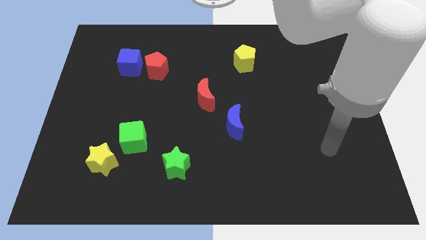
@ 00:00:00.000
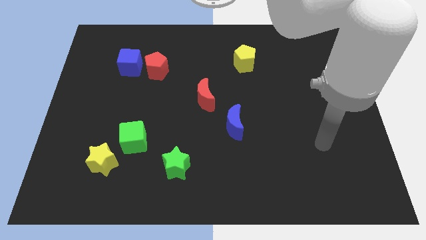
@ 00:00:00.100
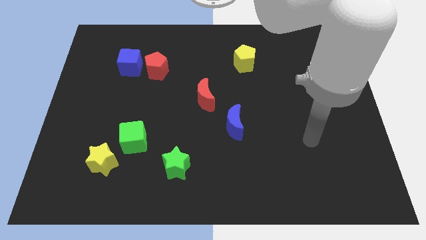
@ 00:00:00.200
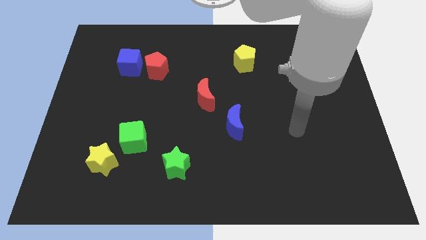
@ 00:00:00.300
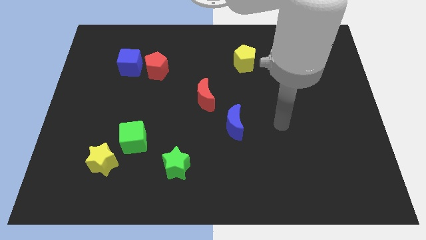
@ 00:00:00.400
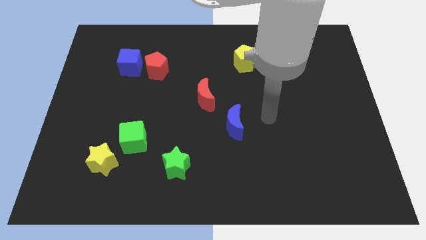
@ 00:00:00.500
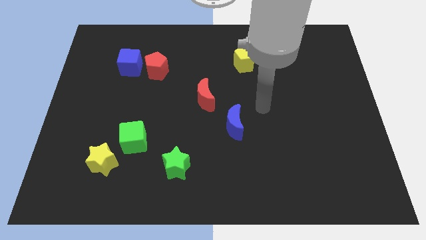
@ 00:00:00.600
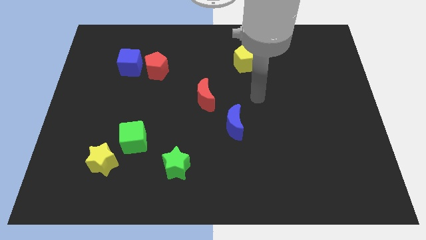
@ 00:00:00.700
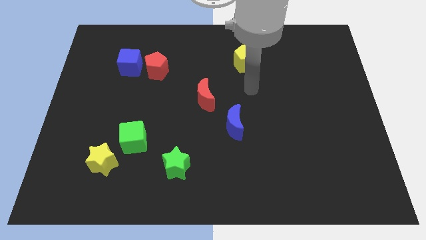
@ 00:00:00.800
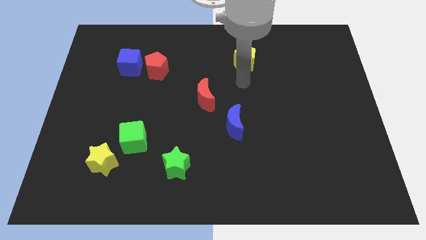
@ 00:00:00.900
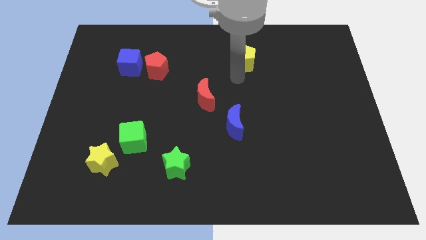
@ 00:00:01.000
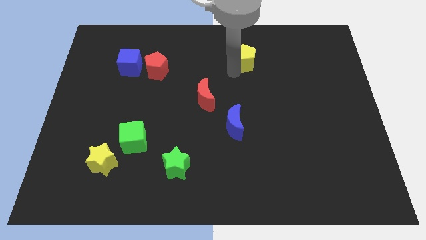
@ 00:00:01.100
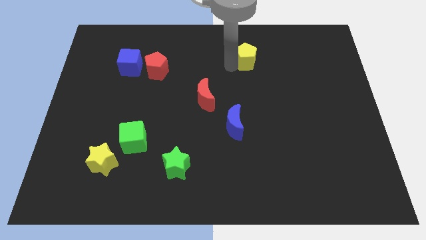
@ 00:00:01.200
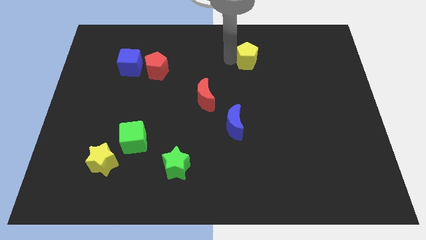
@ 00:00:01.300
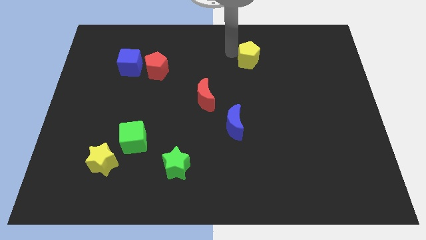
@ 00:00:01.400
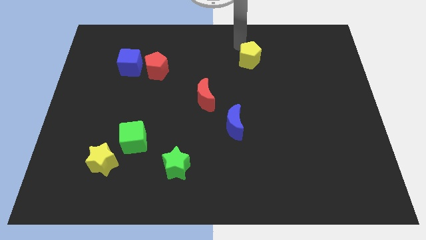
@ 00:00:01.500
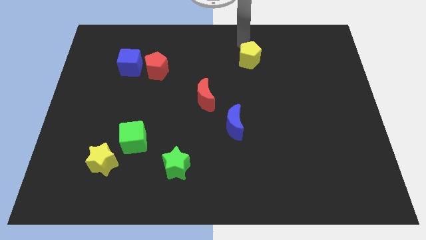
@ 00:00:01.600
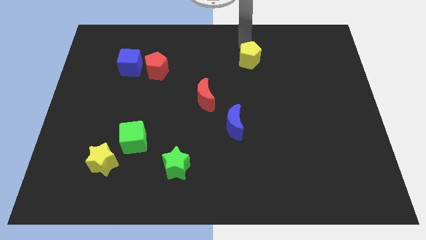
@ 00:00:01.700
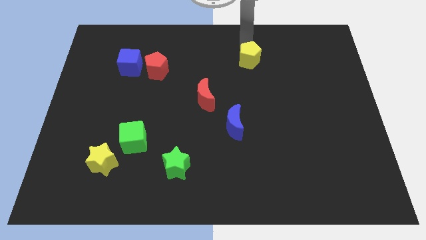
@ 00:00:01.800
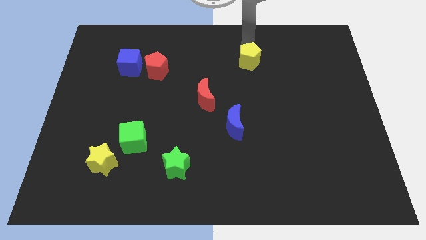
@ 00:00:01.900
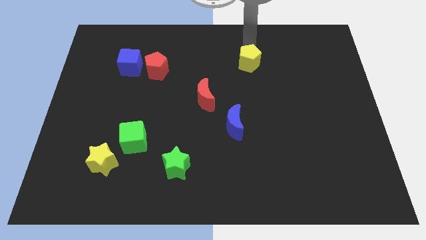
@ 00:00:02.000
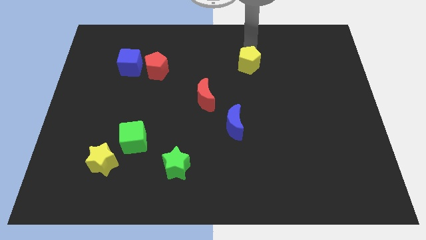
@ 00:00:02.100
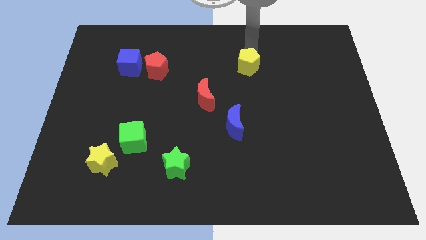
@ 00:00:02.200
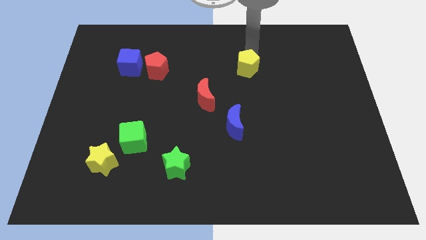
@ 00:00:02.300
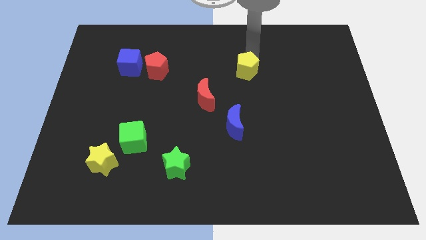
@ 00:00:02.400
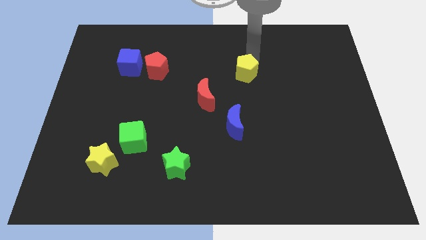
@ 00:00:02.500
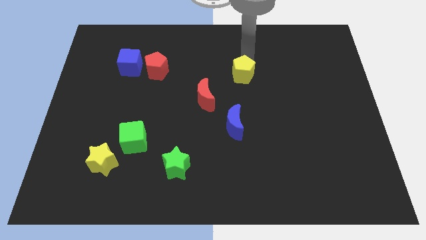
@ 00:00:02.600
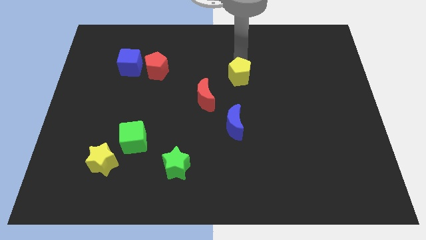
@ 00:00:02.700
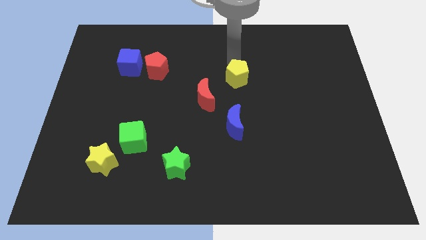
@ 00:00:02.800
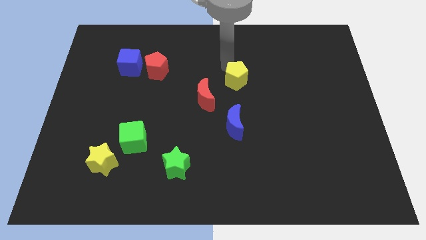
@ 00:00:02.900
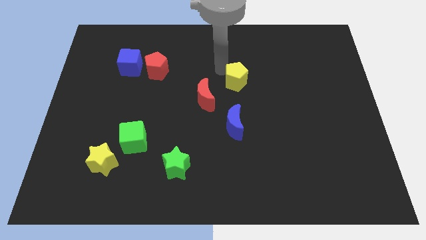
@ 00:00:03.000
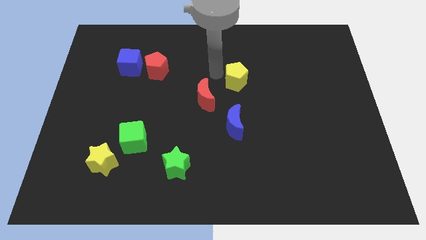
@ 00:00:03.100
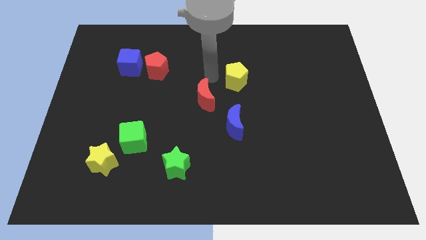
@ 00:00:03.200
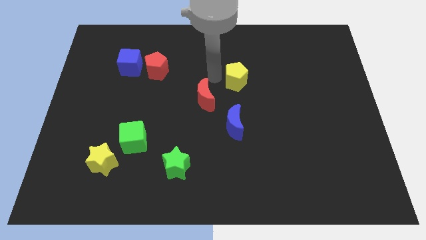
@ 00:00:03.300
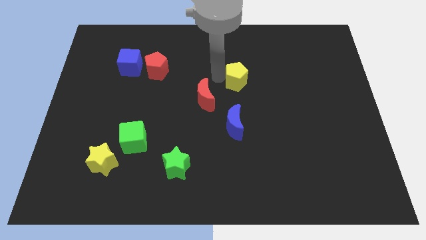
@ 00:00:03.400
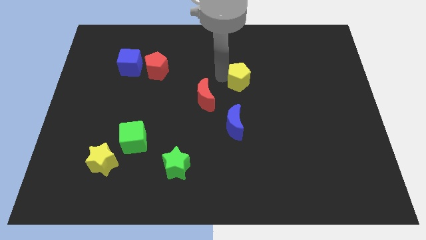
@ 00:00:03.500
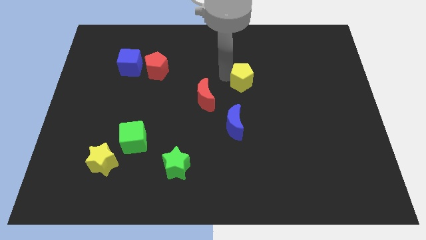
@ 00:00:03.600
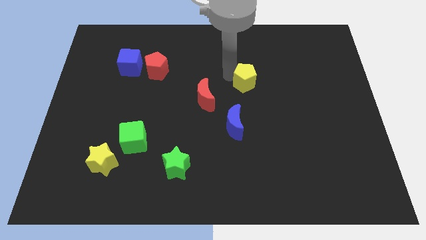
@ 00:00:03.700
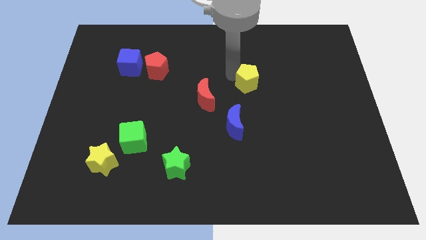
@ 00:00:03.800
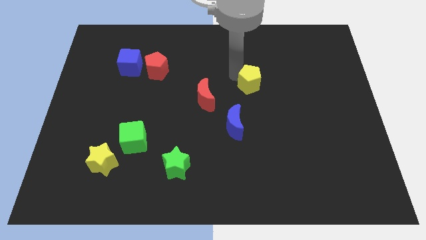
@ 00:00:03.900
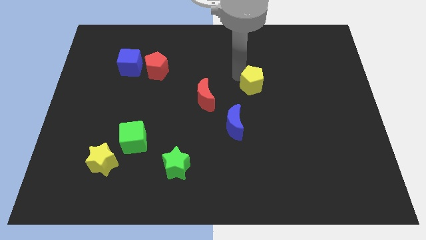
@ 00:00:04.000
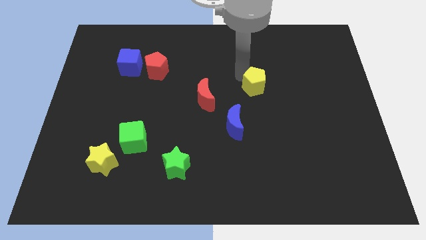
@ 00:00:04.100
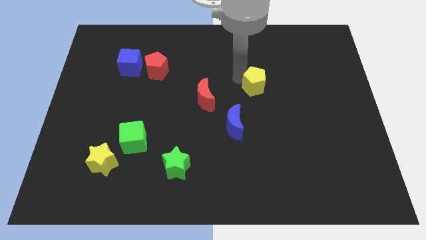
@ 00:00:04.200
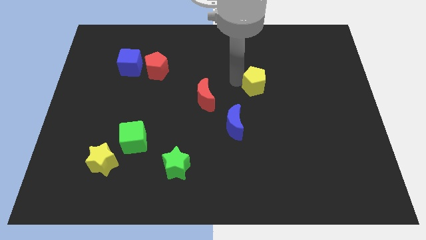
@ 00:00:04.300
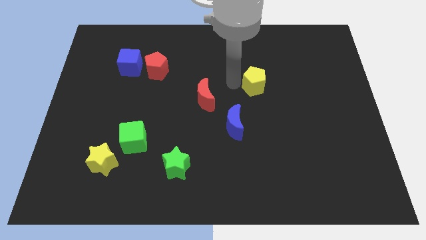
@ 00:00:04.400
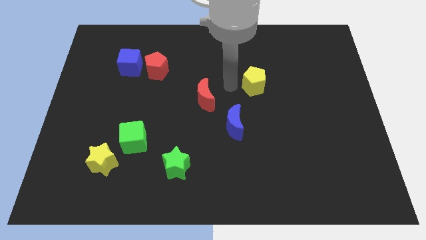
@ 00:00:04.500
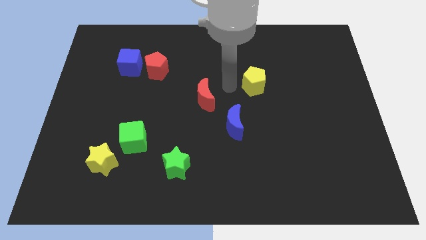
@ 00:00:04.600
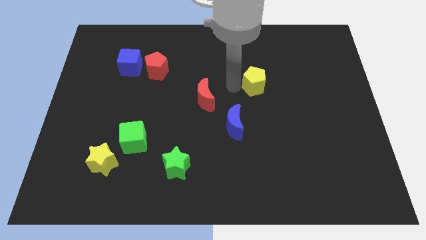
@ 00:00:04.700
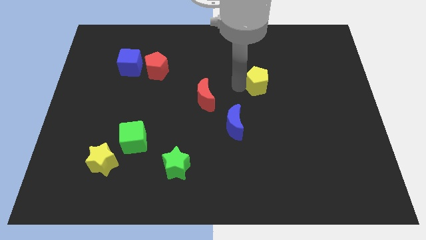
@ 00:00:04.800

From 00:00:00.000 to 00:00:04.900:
push the yellow pentagon down and right diagonally a little

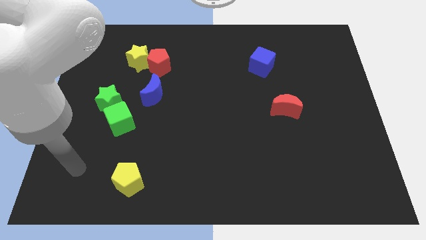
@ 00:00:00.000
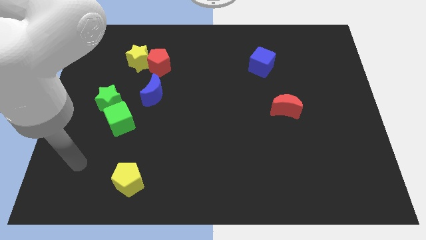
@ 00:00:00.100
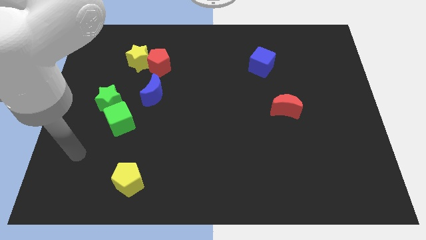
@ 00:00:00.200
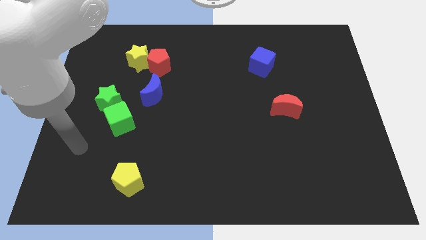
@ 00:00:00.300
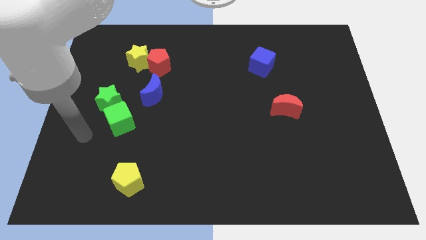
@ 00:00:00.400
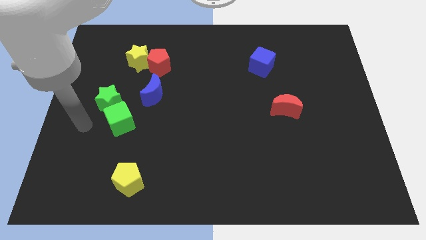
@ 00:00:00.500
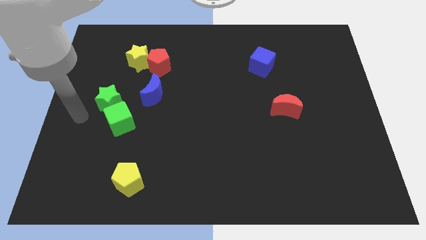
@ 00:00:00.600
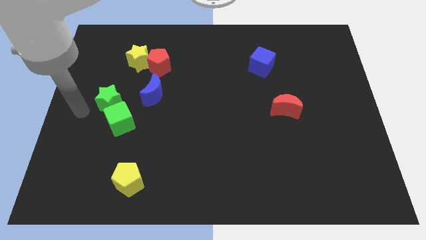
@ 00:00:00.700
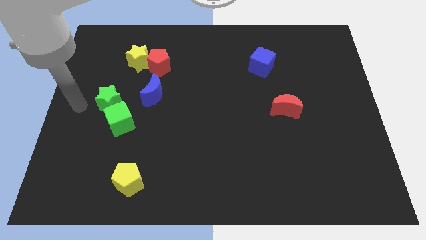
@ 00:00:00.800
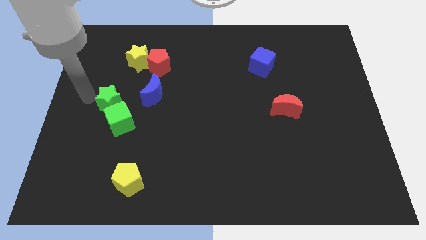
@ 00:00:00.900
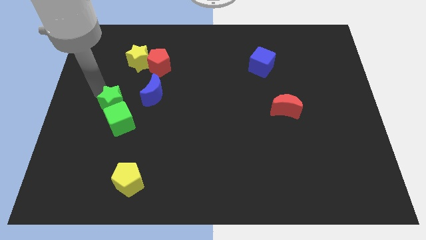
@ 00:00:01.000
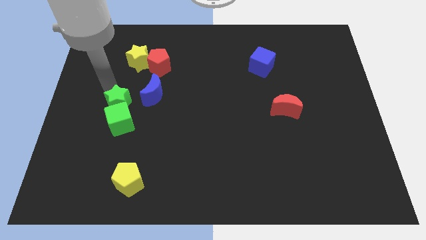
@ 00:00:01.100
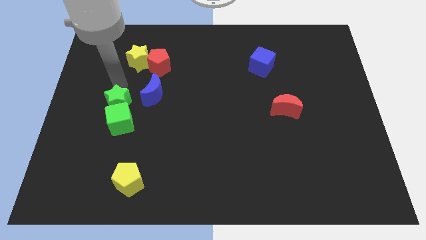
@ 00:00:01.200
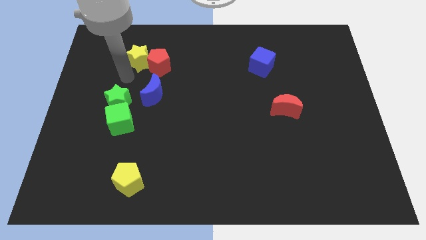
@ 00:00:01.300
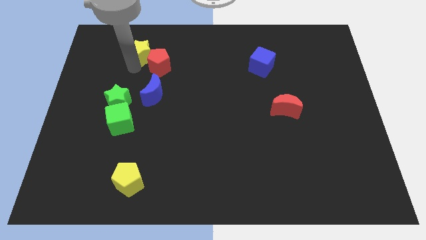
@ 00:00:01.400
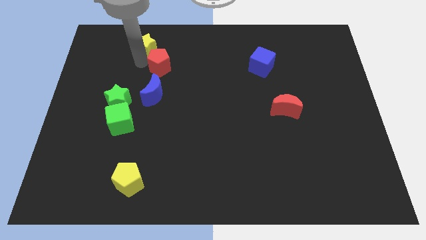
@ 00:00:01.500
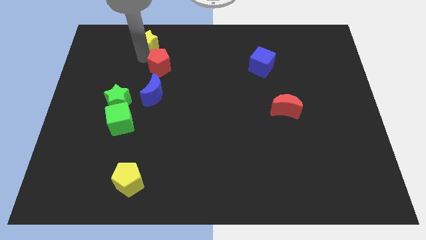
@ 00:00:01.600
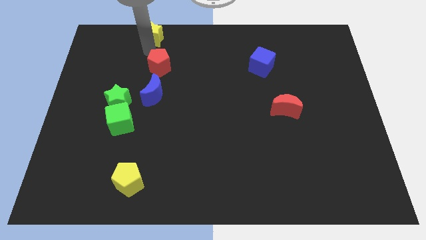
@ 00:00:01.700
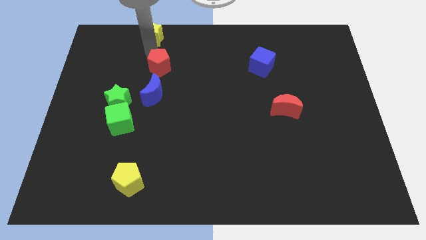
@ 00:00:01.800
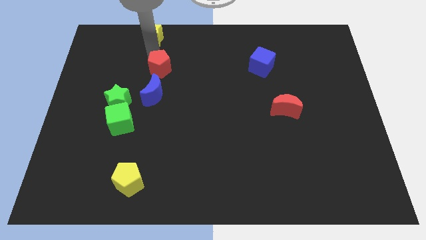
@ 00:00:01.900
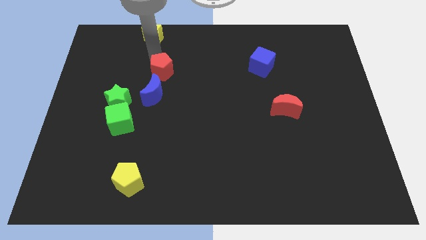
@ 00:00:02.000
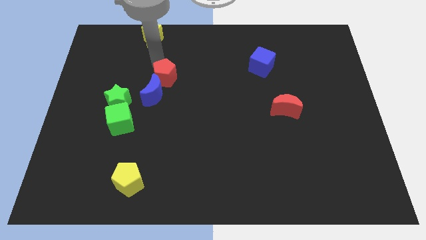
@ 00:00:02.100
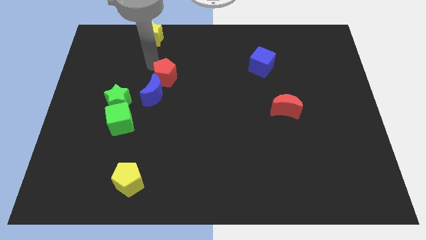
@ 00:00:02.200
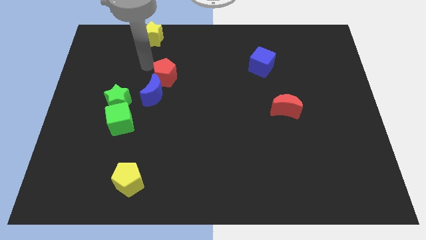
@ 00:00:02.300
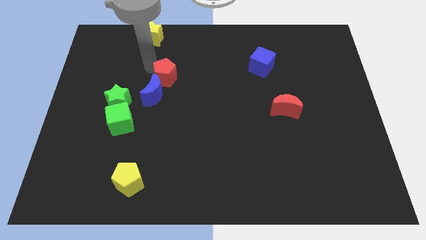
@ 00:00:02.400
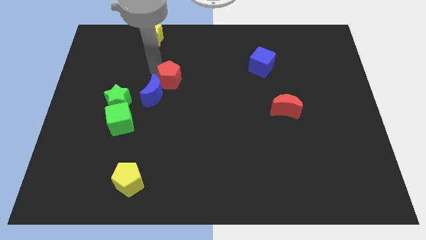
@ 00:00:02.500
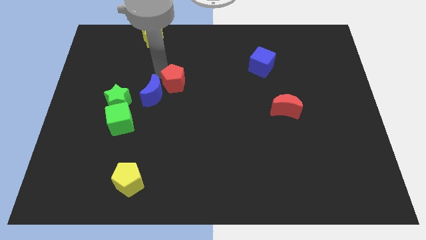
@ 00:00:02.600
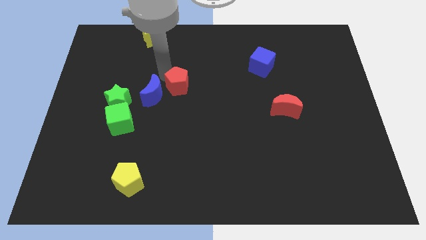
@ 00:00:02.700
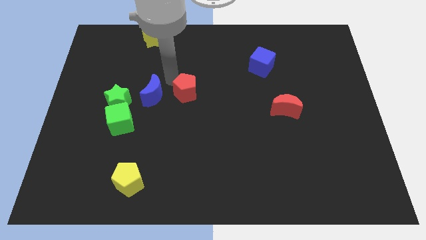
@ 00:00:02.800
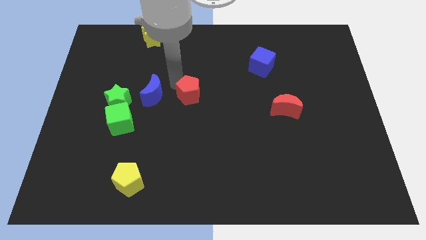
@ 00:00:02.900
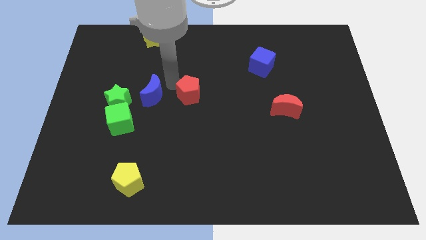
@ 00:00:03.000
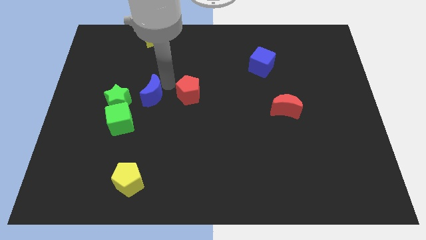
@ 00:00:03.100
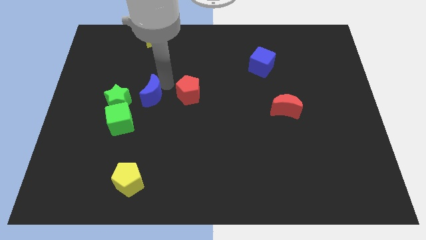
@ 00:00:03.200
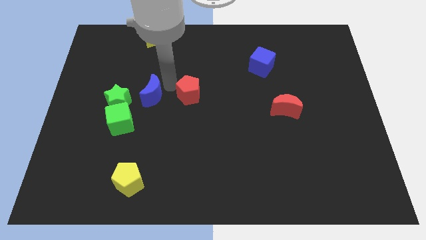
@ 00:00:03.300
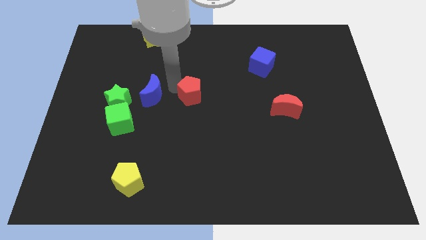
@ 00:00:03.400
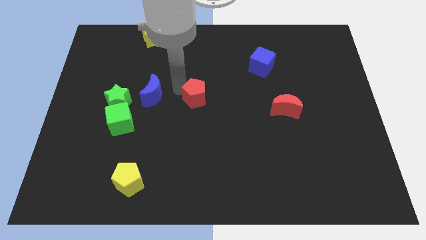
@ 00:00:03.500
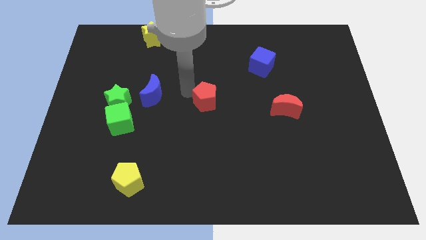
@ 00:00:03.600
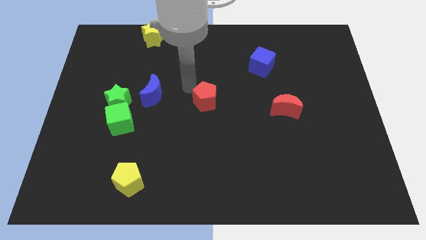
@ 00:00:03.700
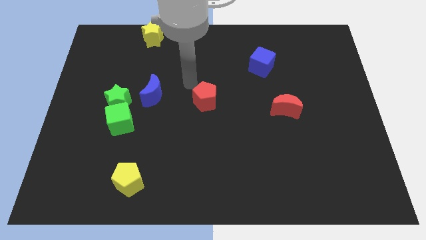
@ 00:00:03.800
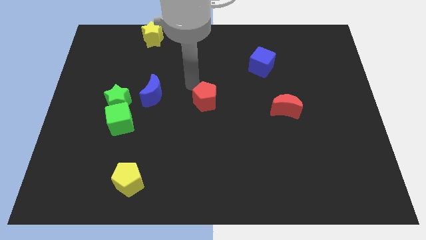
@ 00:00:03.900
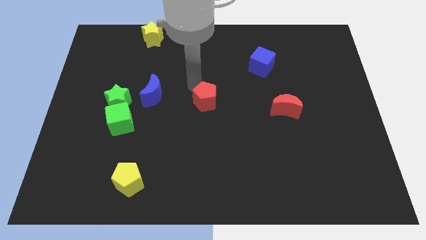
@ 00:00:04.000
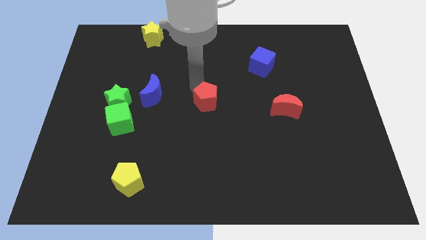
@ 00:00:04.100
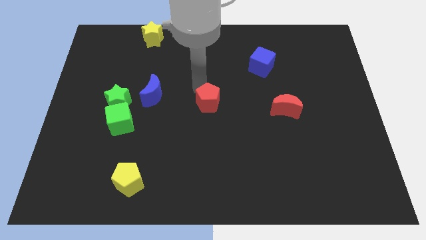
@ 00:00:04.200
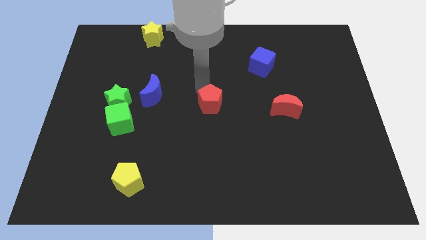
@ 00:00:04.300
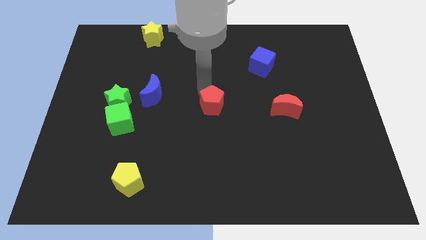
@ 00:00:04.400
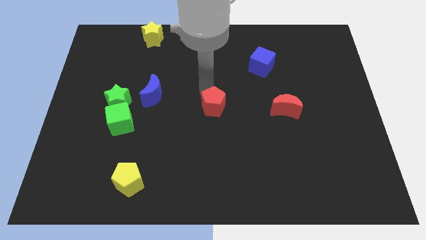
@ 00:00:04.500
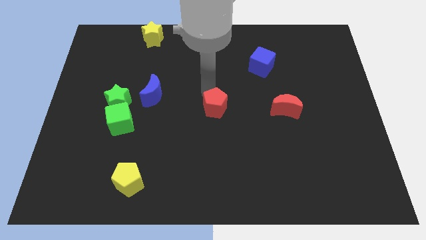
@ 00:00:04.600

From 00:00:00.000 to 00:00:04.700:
move the red pentagon diagonally down and right
